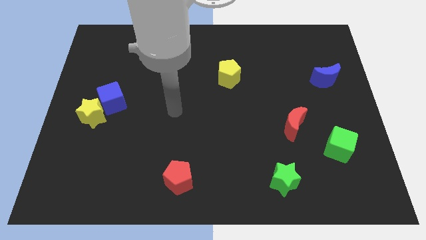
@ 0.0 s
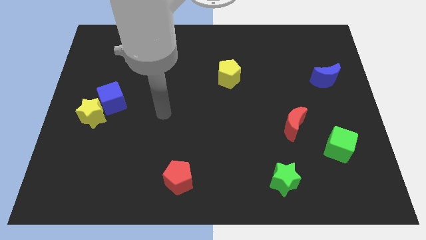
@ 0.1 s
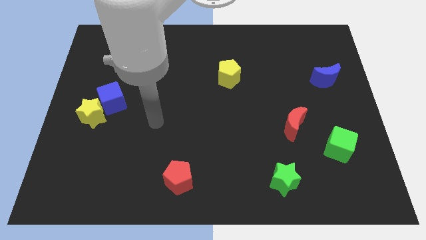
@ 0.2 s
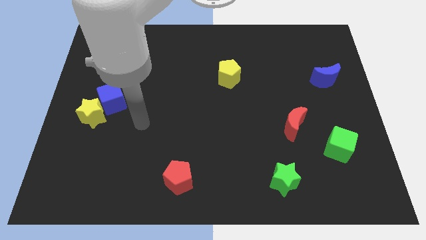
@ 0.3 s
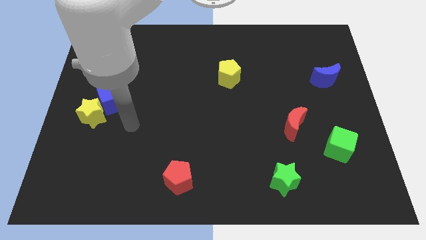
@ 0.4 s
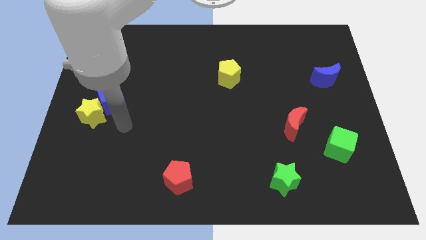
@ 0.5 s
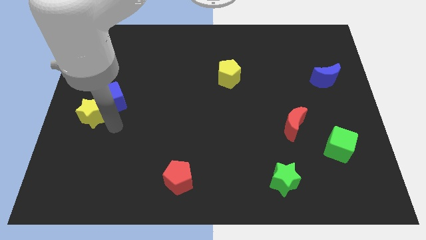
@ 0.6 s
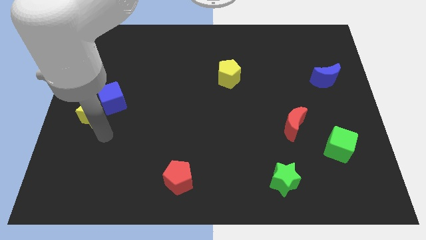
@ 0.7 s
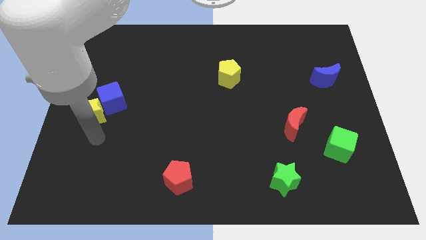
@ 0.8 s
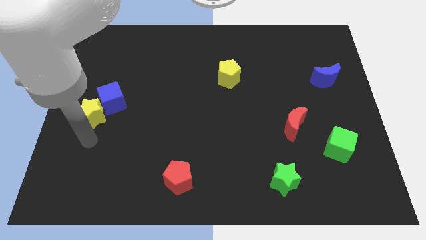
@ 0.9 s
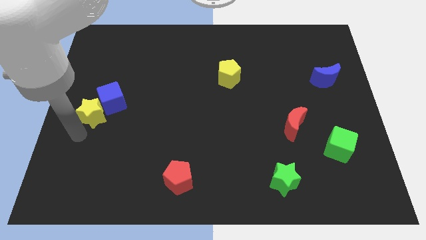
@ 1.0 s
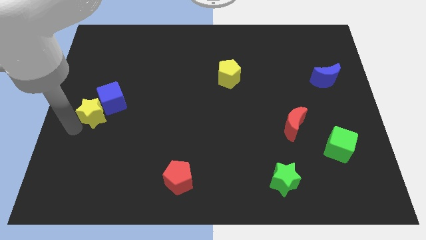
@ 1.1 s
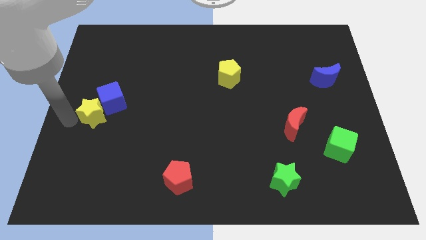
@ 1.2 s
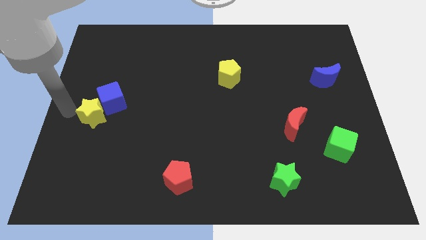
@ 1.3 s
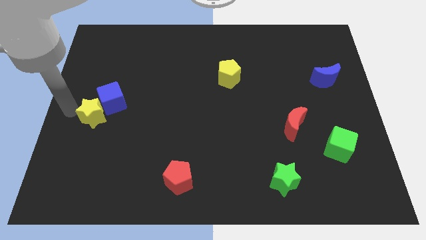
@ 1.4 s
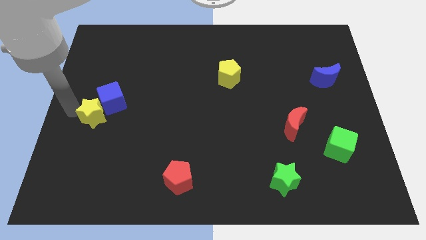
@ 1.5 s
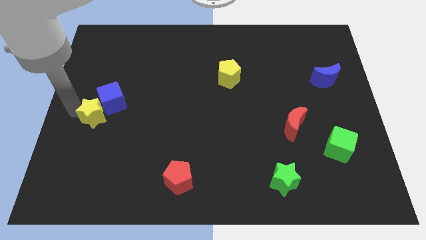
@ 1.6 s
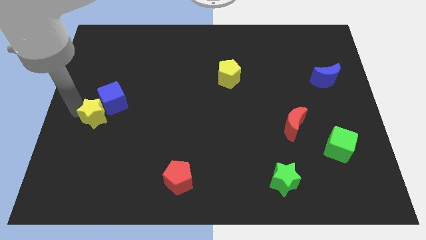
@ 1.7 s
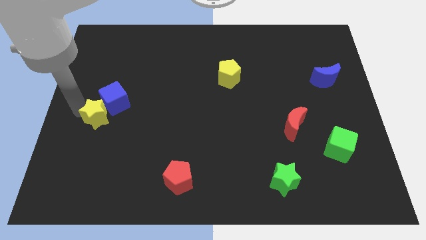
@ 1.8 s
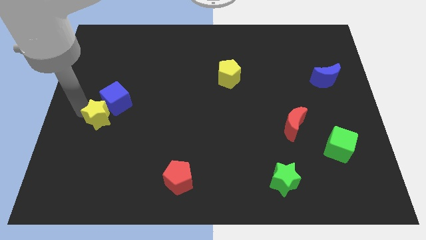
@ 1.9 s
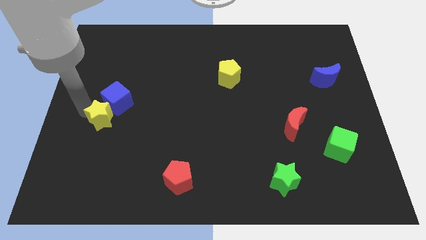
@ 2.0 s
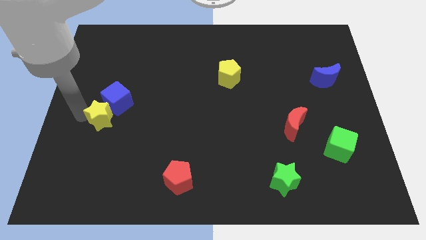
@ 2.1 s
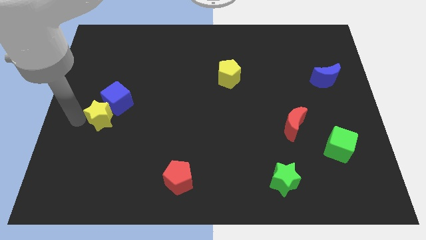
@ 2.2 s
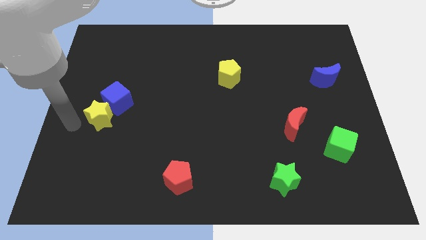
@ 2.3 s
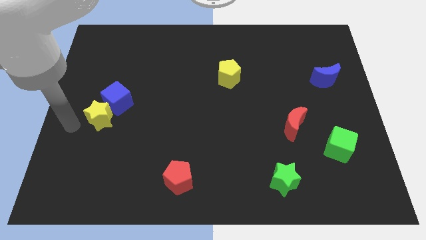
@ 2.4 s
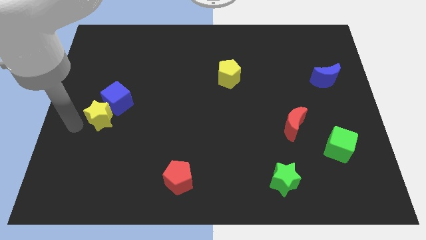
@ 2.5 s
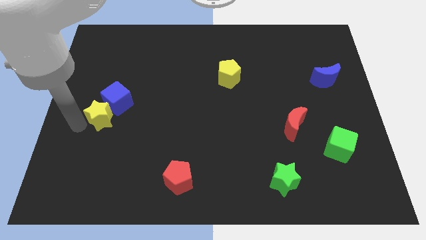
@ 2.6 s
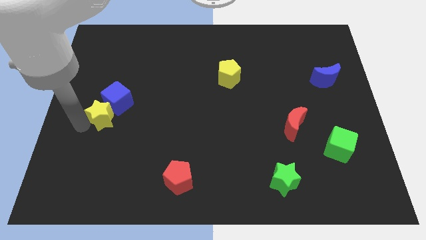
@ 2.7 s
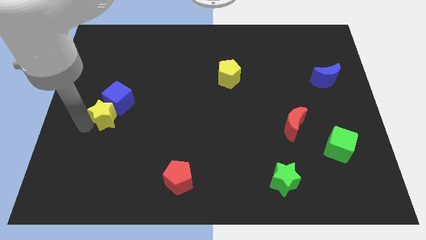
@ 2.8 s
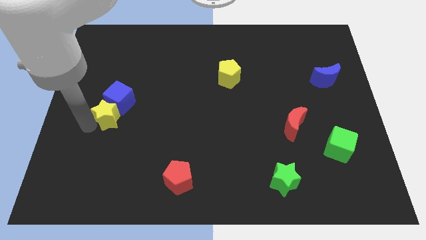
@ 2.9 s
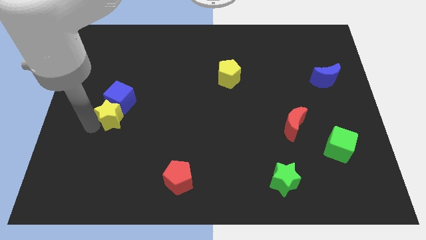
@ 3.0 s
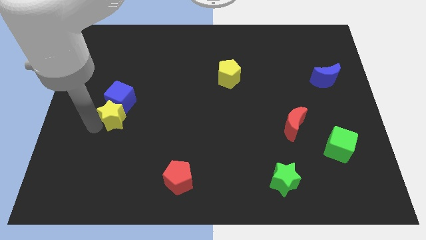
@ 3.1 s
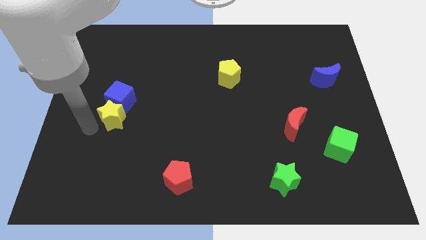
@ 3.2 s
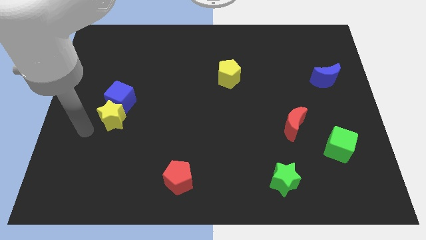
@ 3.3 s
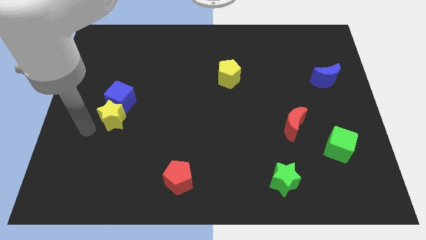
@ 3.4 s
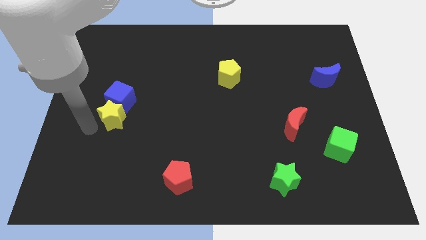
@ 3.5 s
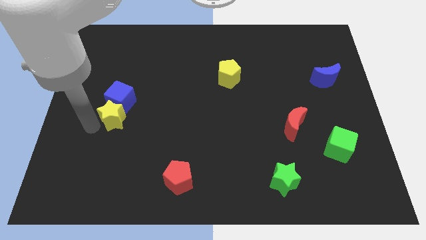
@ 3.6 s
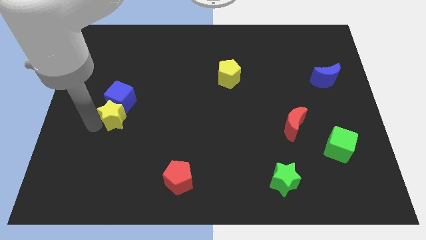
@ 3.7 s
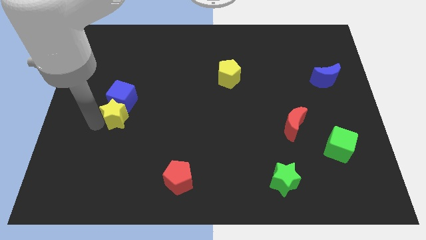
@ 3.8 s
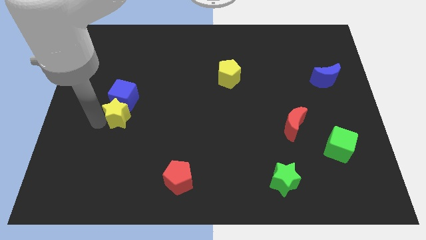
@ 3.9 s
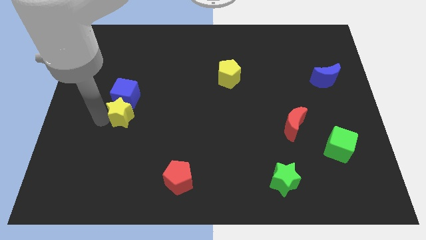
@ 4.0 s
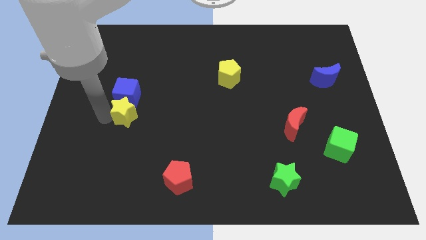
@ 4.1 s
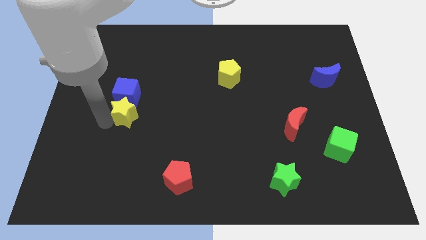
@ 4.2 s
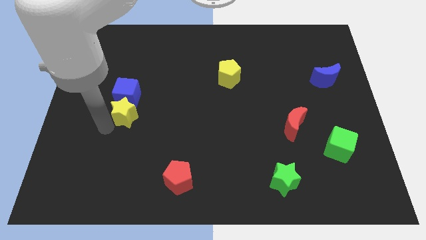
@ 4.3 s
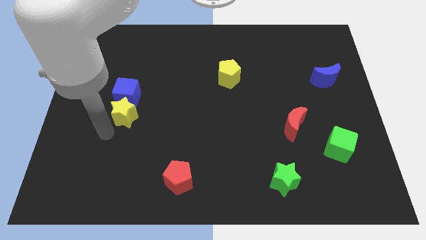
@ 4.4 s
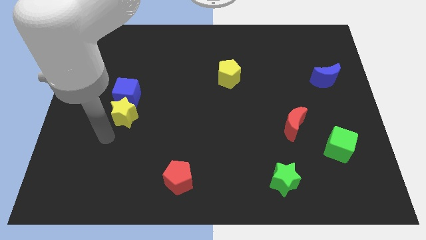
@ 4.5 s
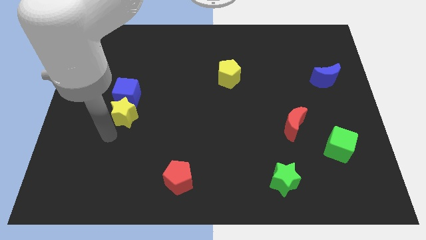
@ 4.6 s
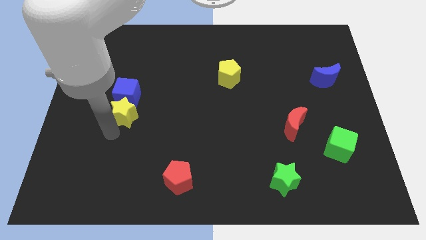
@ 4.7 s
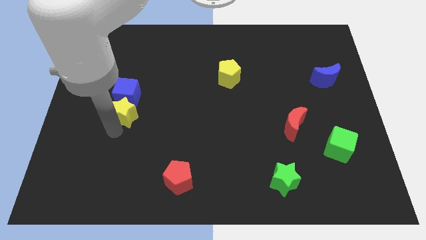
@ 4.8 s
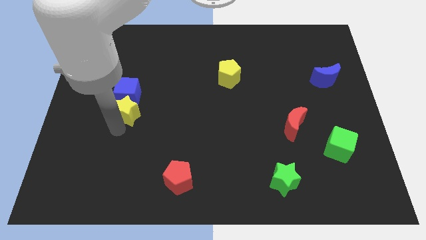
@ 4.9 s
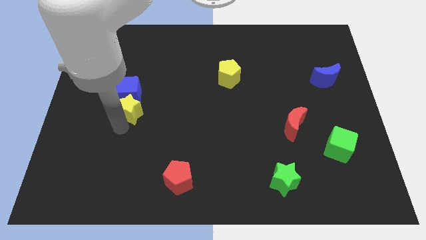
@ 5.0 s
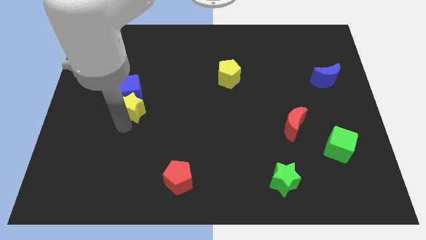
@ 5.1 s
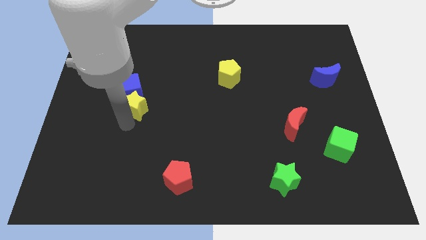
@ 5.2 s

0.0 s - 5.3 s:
slightly push the yellow star diagonally upwards and right

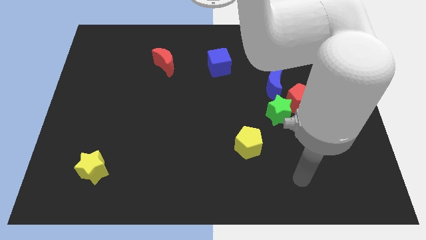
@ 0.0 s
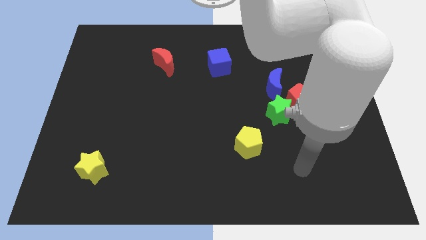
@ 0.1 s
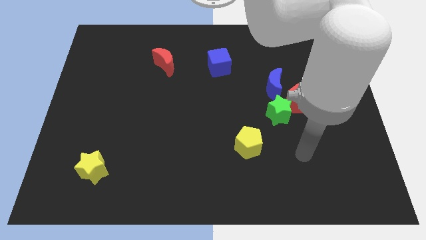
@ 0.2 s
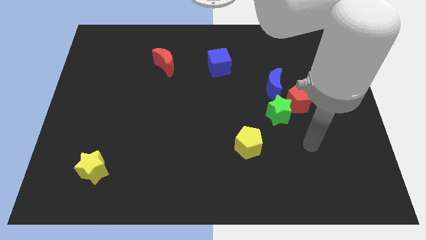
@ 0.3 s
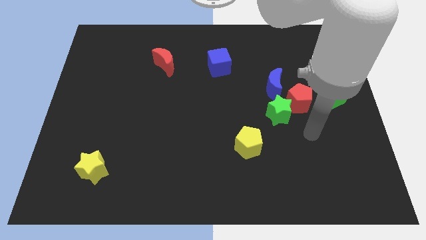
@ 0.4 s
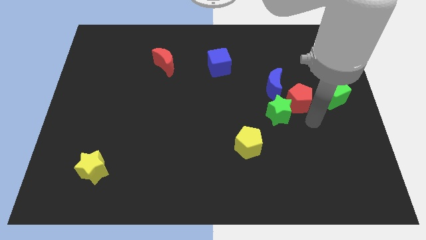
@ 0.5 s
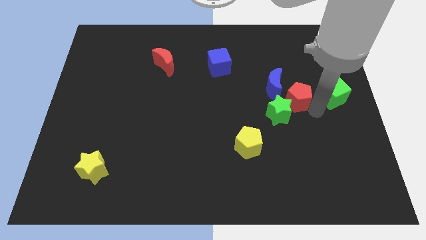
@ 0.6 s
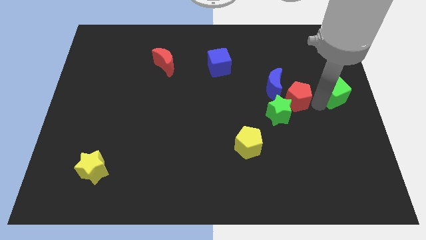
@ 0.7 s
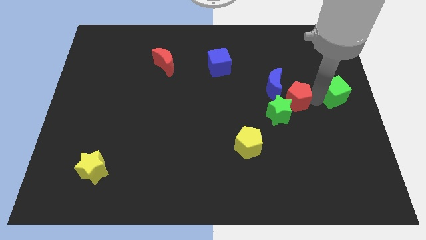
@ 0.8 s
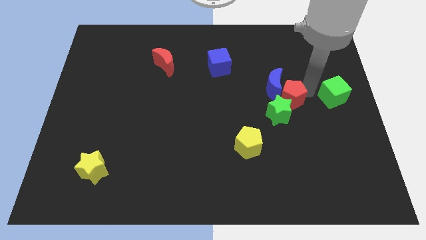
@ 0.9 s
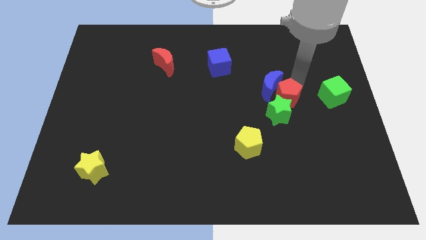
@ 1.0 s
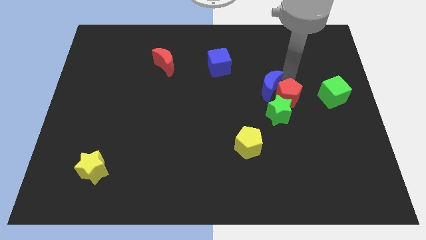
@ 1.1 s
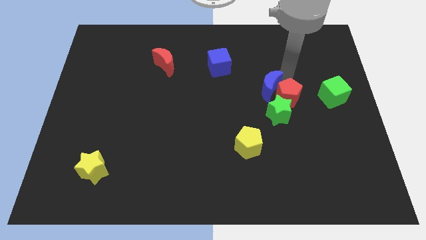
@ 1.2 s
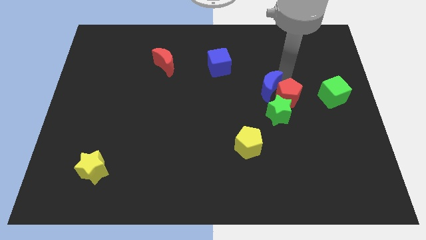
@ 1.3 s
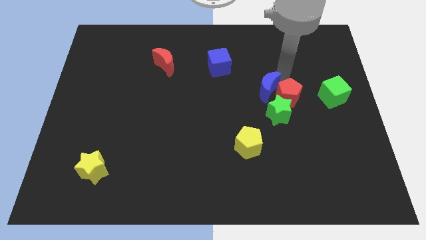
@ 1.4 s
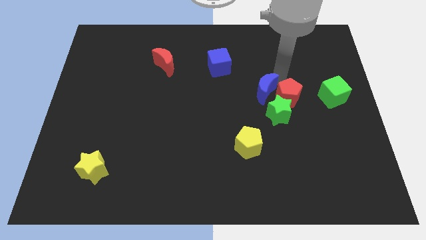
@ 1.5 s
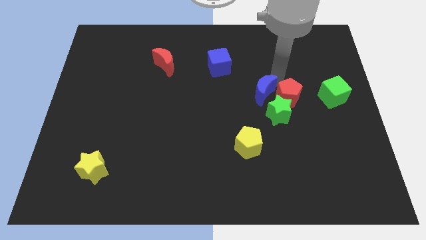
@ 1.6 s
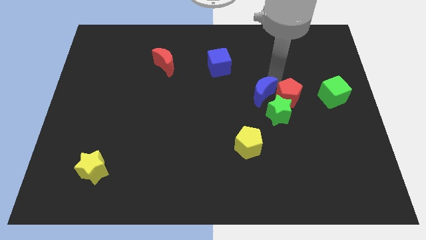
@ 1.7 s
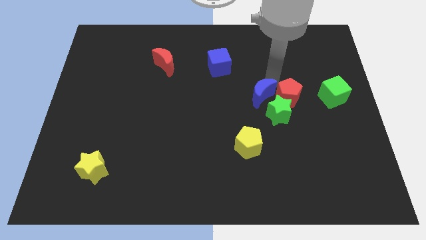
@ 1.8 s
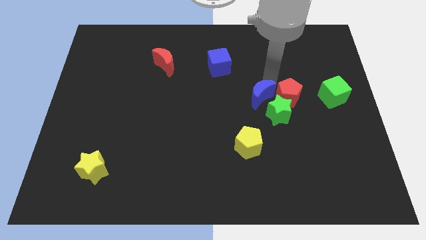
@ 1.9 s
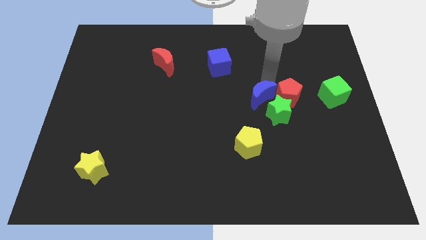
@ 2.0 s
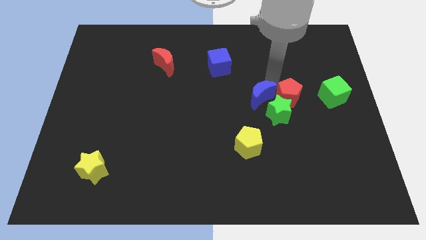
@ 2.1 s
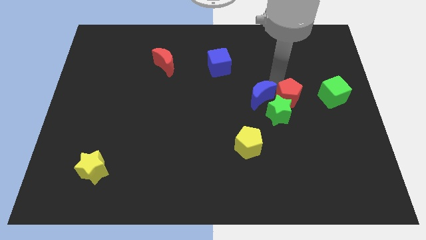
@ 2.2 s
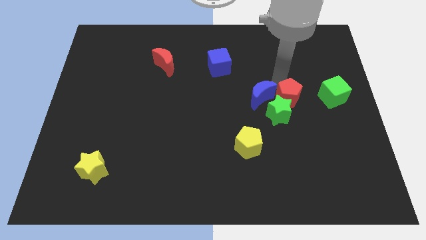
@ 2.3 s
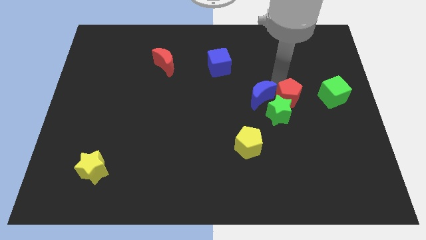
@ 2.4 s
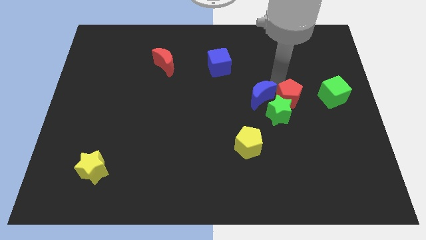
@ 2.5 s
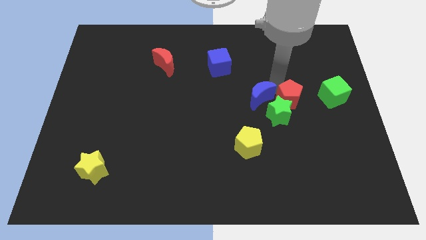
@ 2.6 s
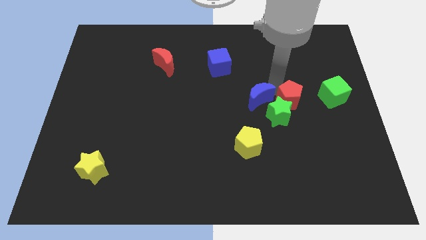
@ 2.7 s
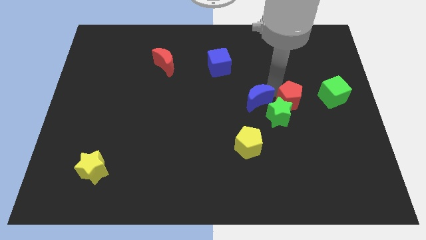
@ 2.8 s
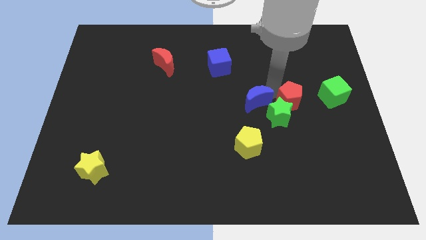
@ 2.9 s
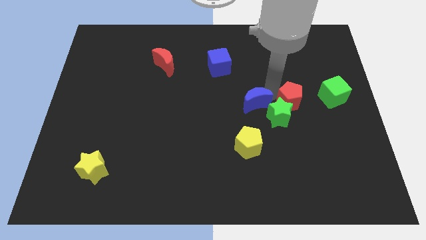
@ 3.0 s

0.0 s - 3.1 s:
slide the blue moon slightly down and then to the left
